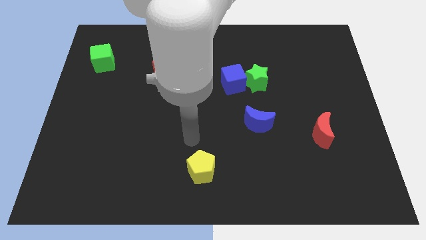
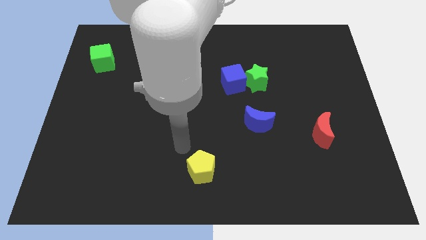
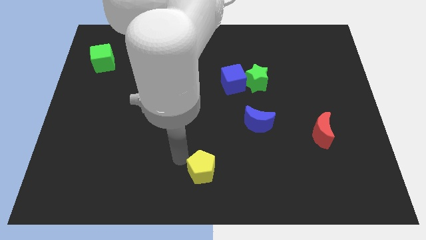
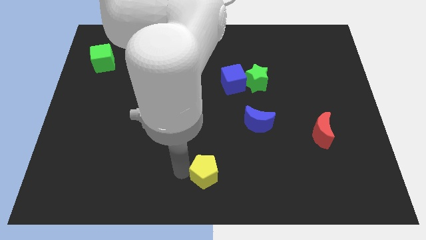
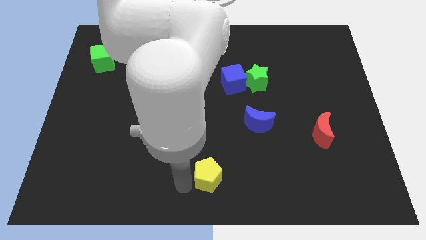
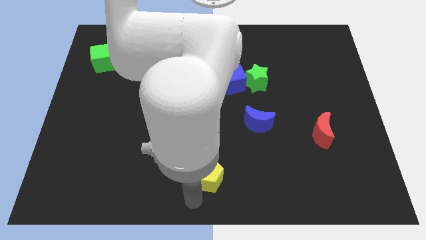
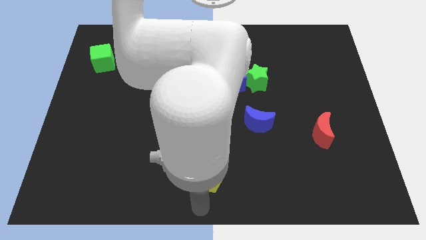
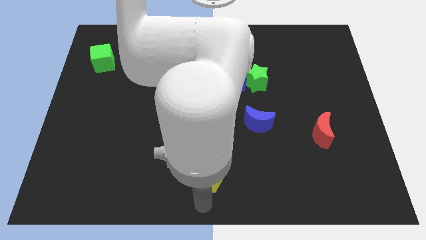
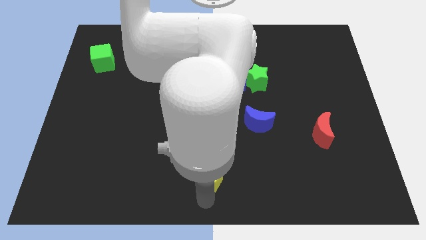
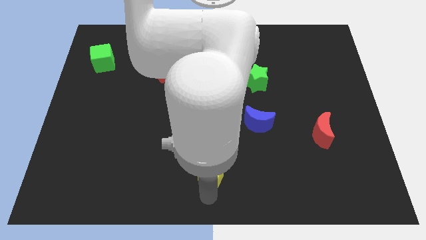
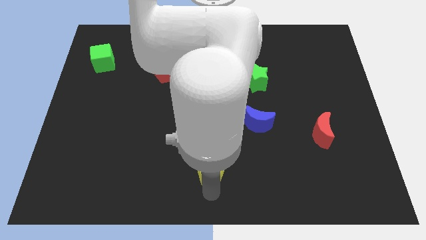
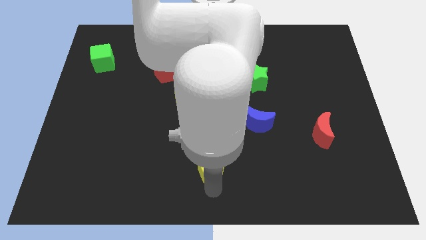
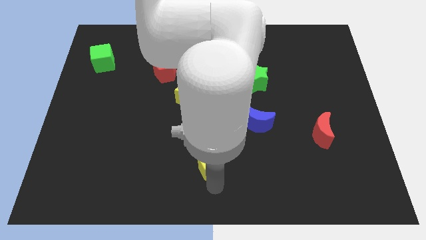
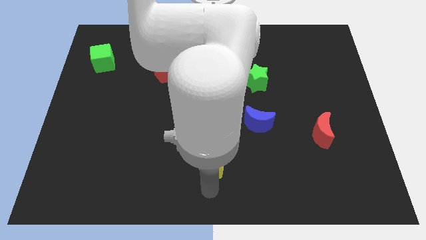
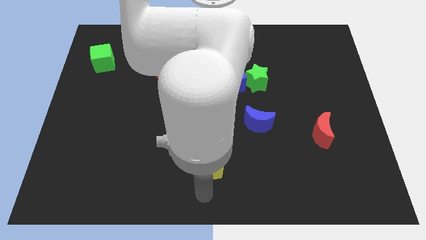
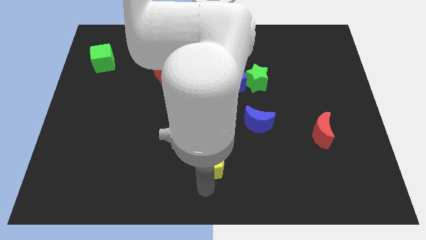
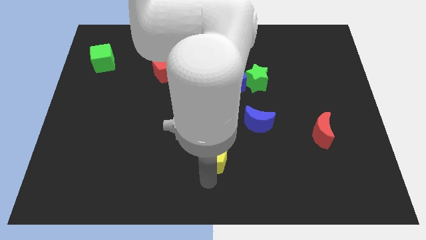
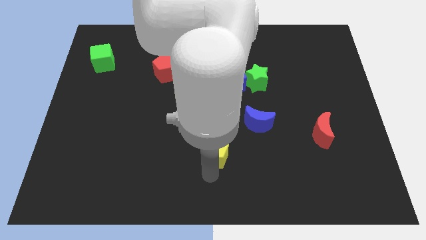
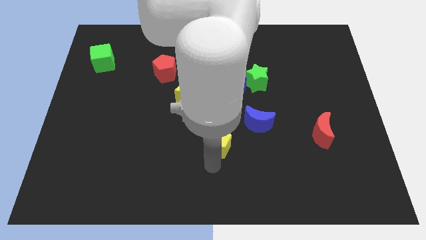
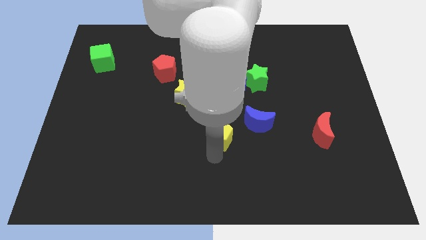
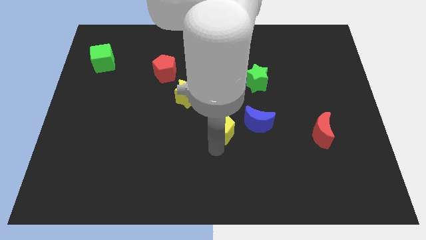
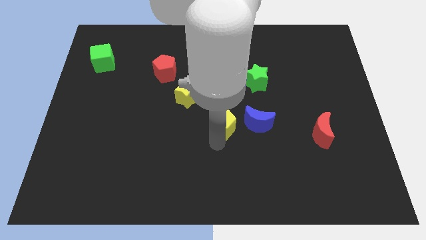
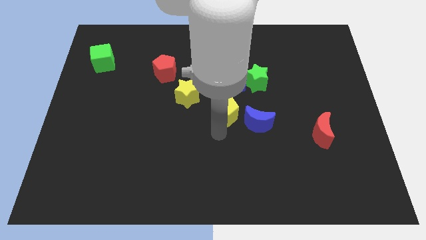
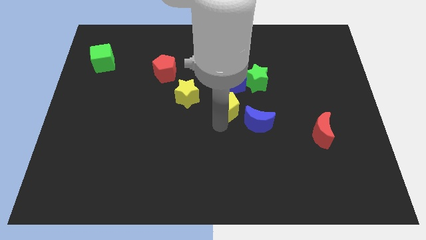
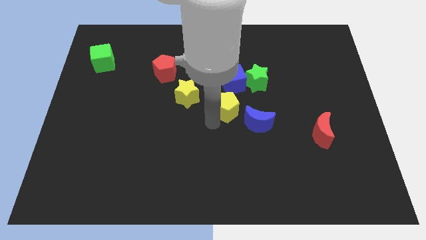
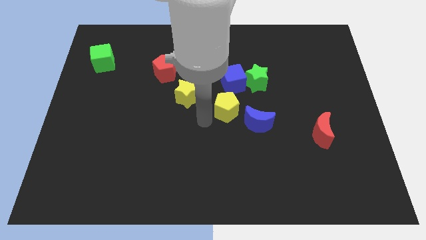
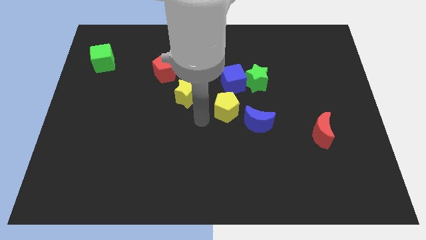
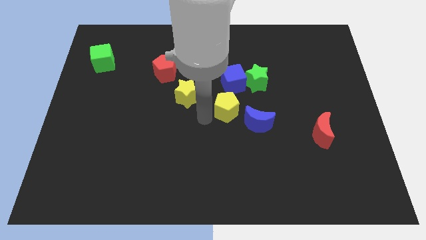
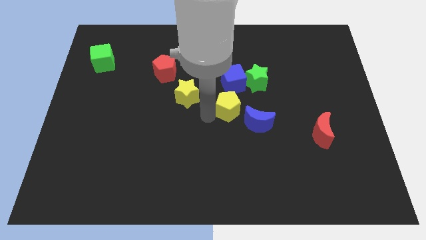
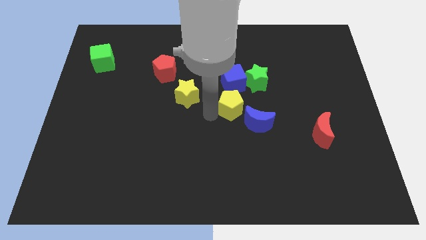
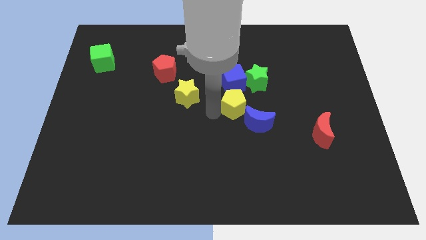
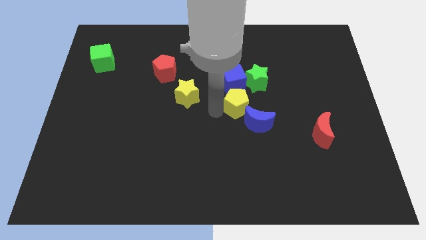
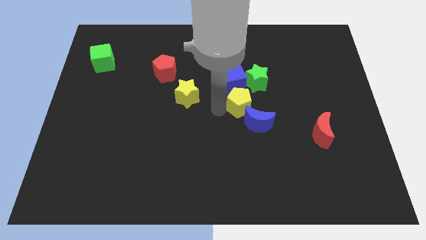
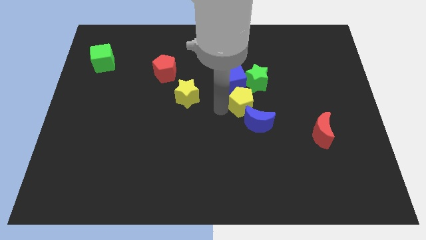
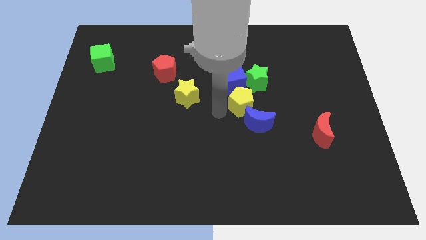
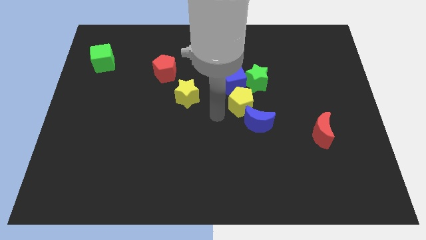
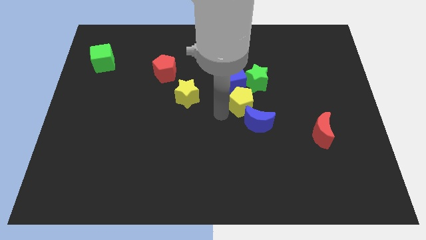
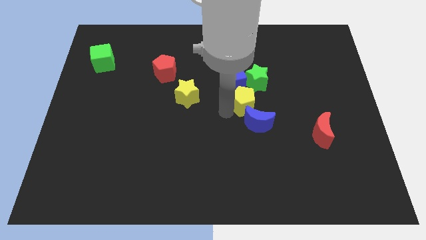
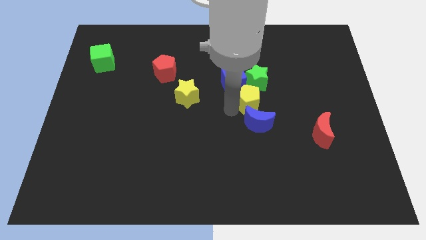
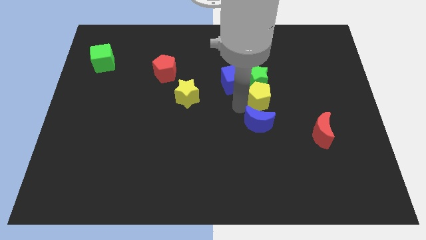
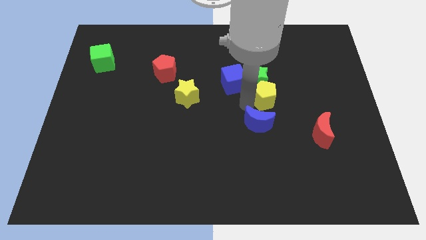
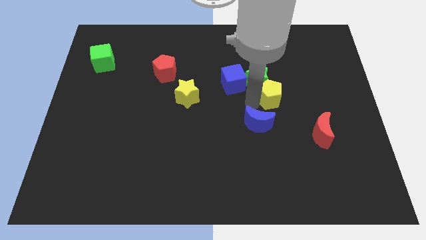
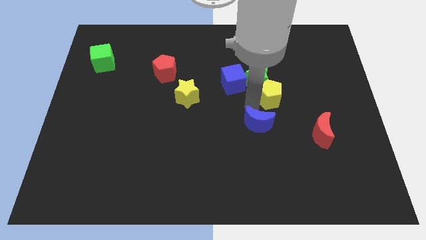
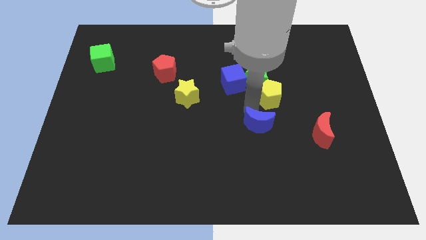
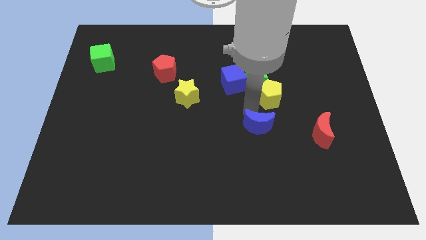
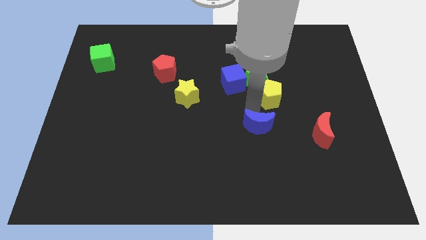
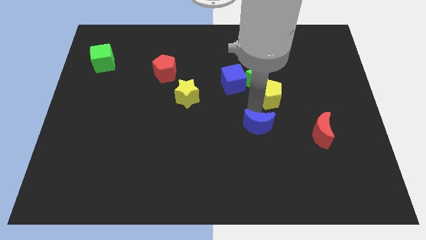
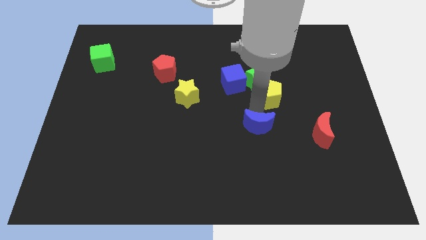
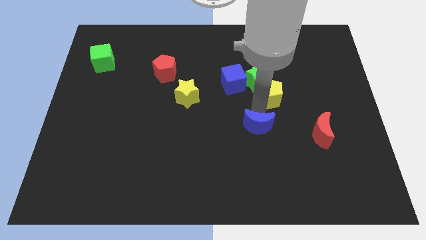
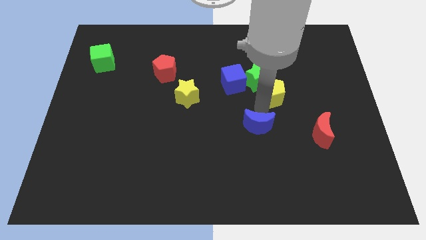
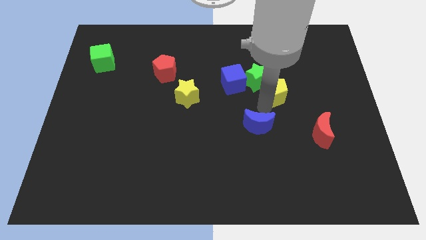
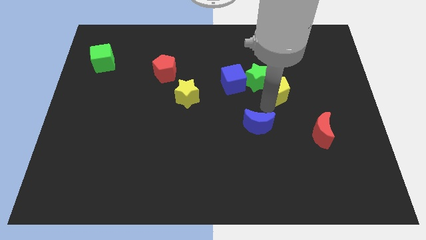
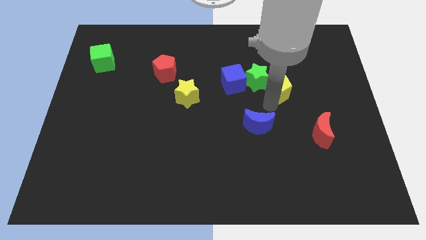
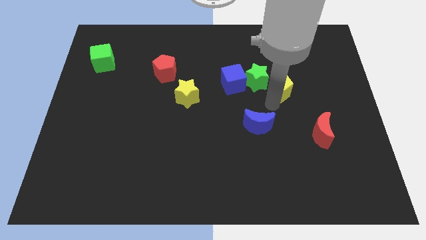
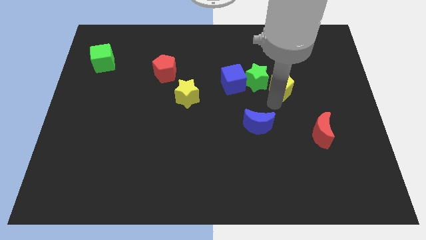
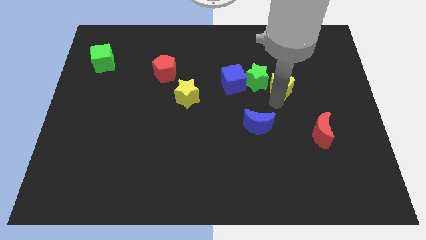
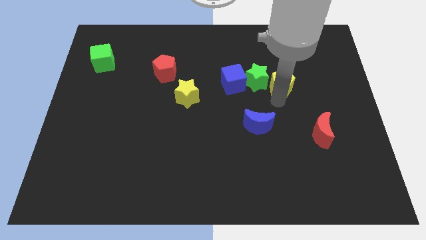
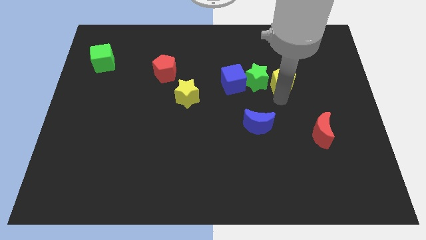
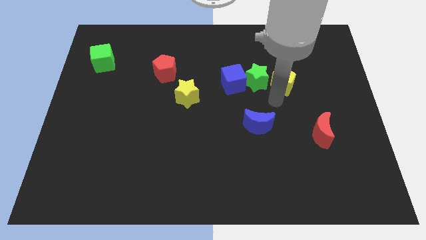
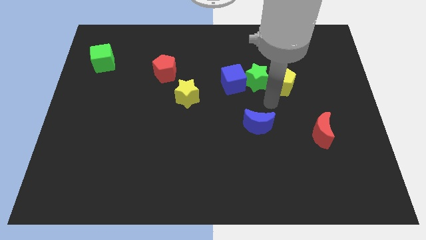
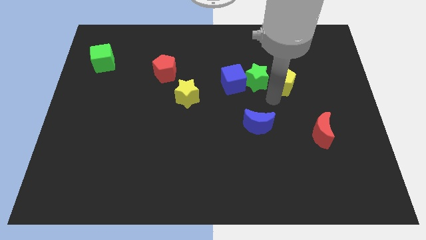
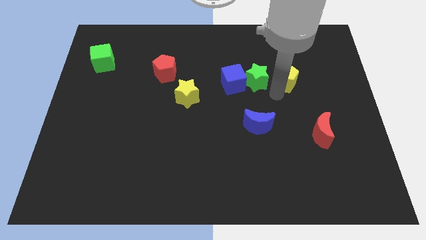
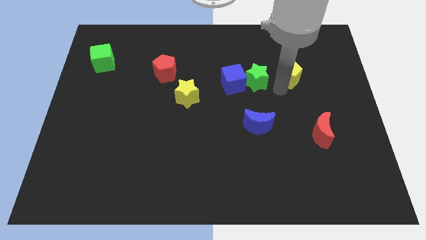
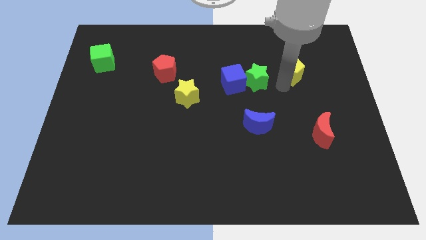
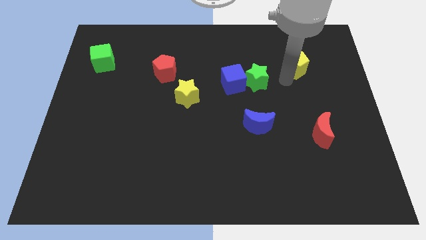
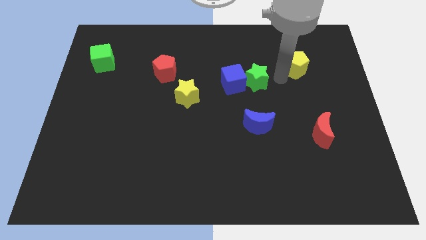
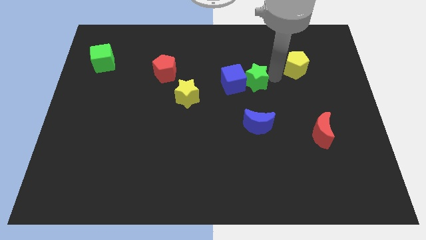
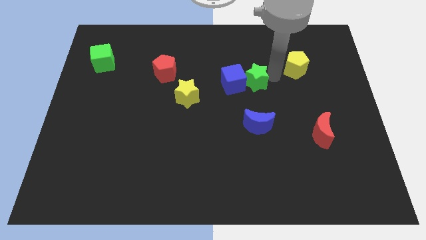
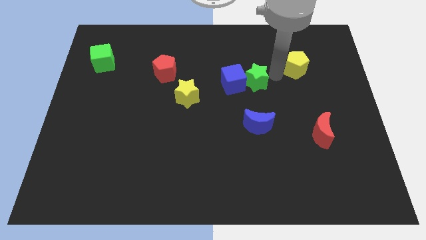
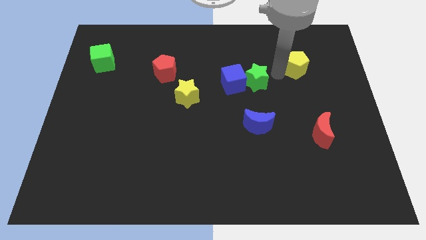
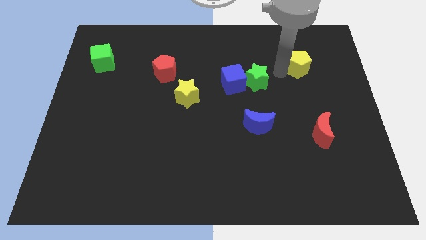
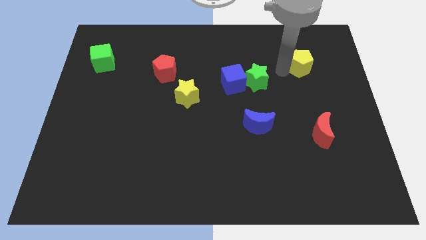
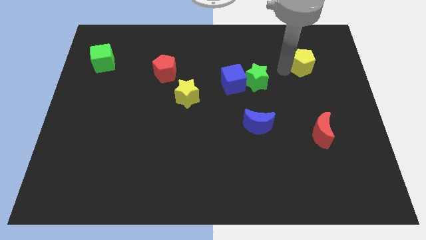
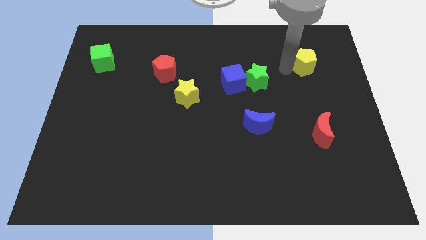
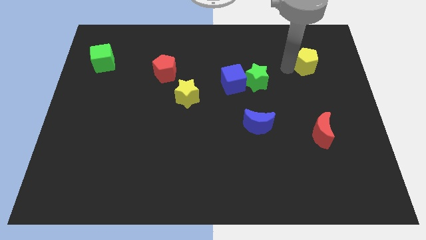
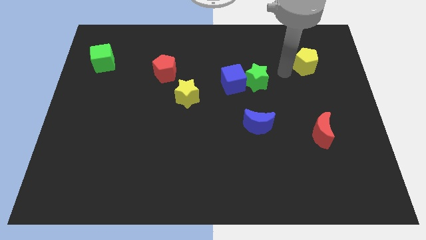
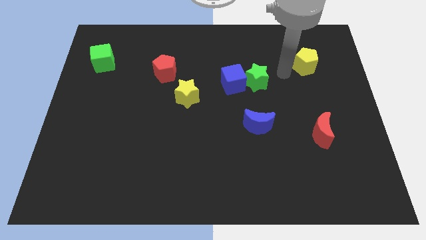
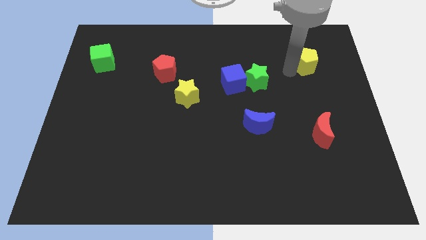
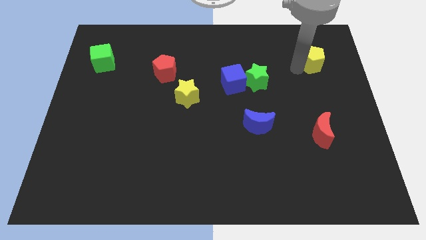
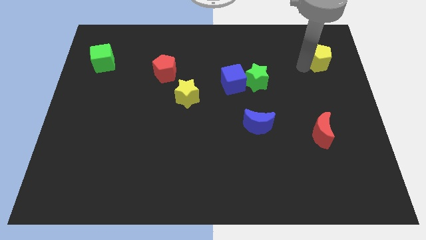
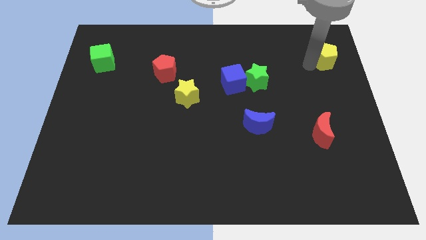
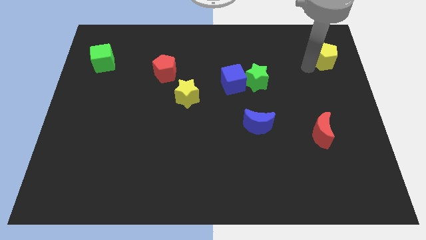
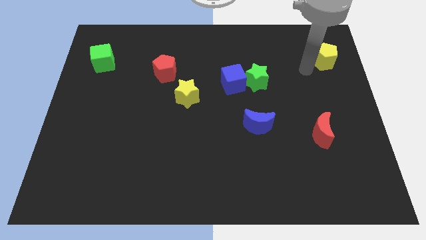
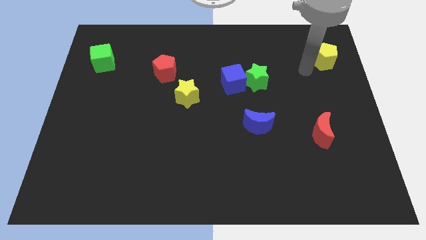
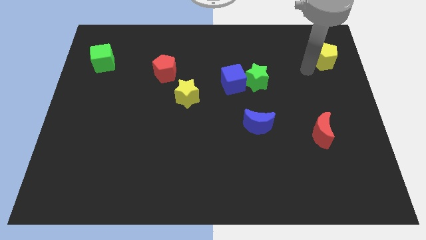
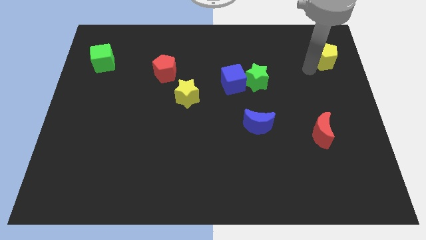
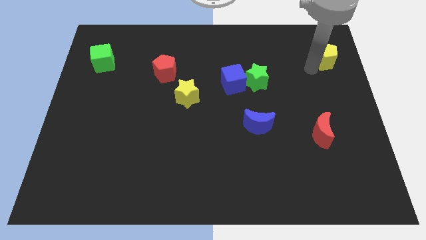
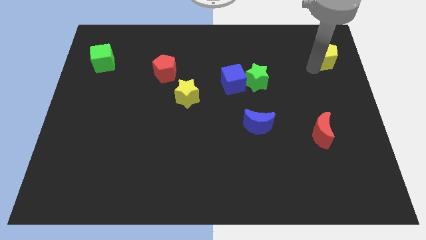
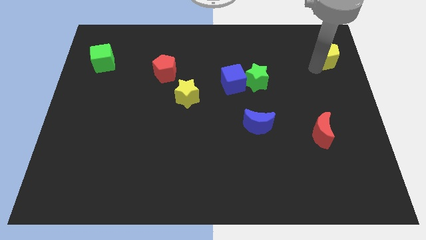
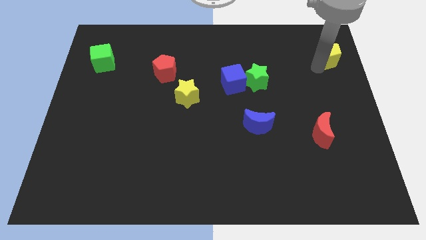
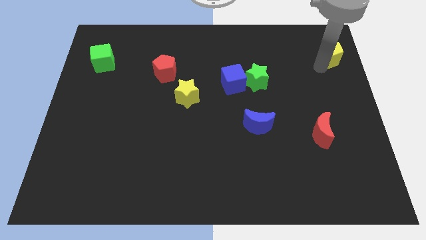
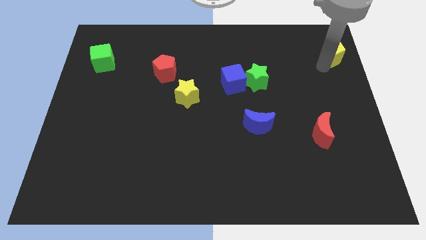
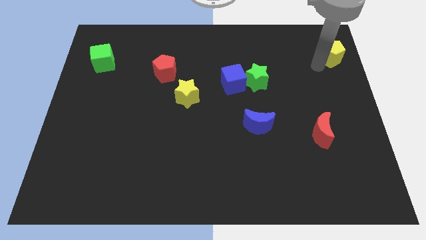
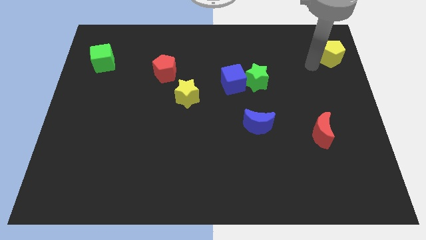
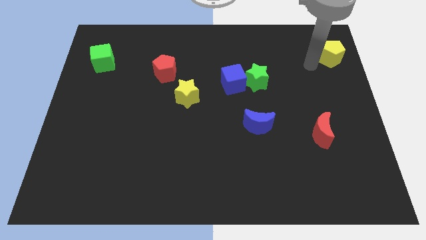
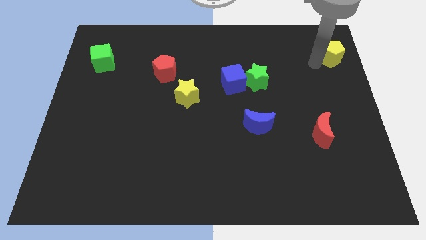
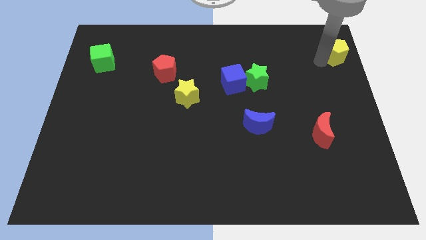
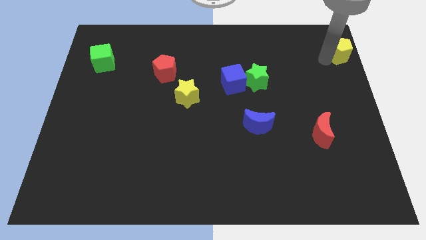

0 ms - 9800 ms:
move the yellow pentagon to the top right of the board
